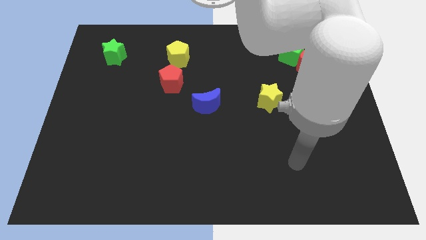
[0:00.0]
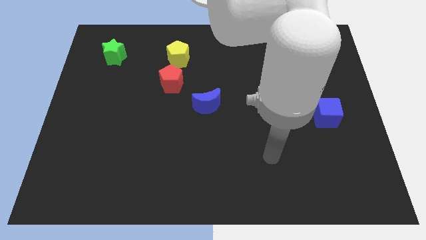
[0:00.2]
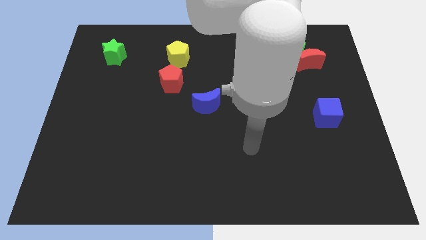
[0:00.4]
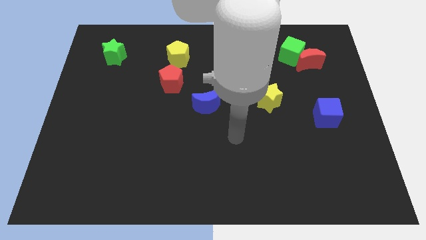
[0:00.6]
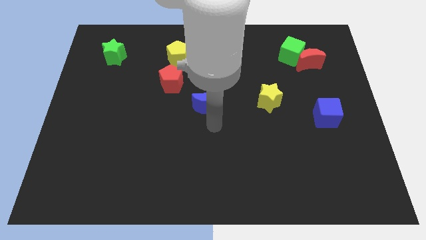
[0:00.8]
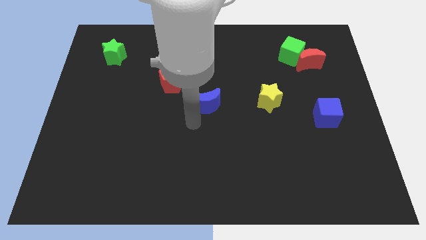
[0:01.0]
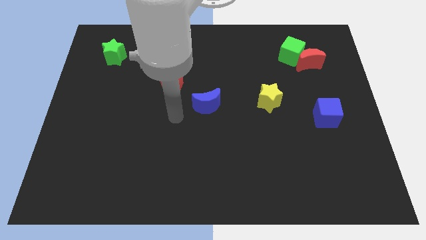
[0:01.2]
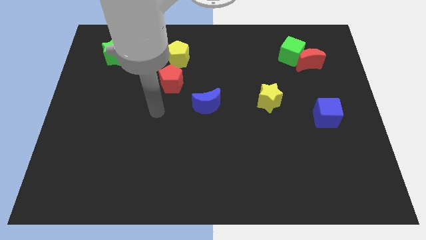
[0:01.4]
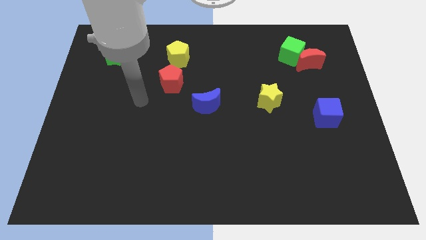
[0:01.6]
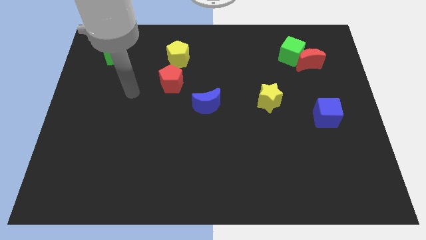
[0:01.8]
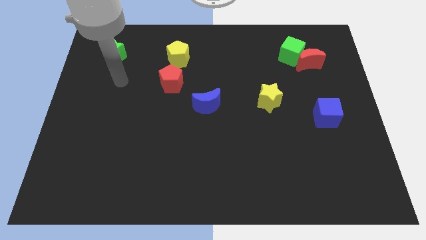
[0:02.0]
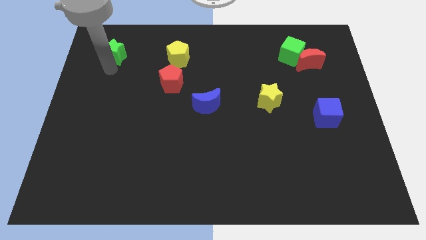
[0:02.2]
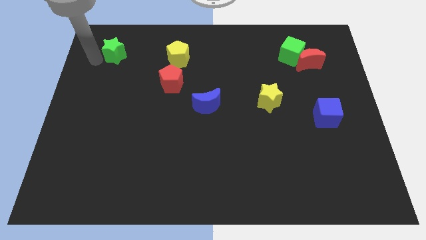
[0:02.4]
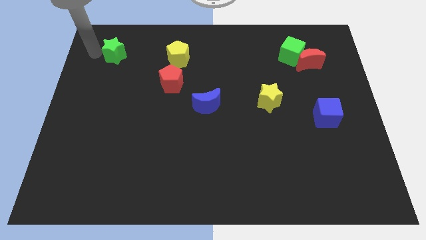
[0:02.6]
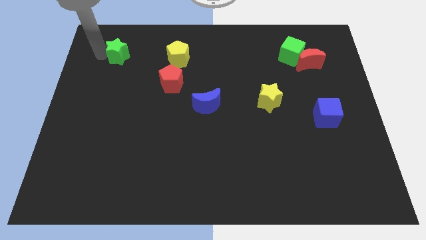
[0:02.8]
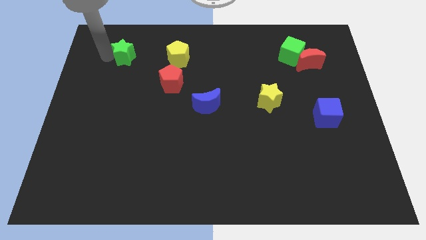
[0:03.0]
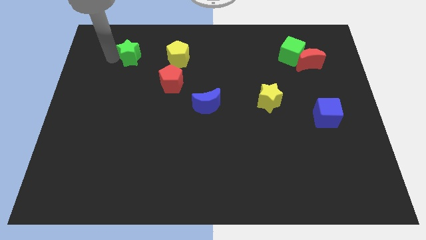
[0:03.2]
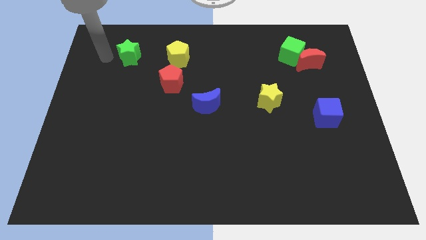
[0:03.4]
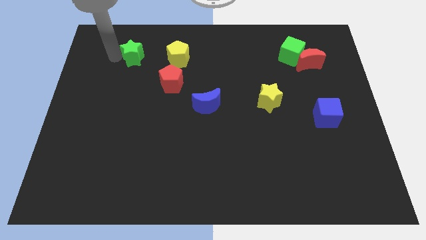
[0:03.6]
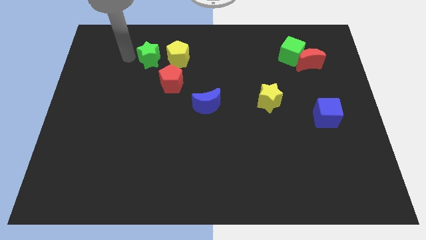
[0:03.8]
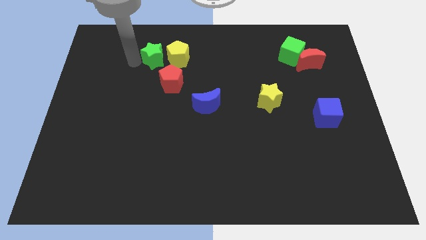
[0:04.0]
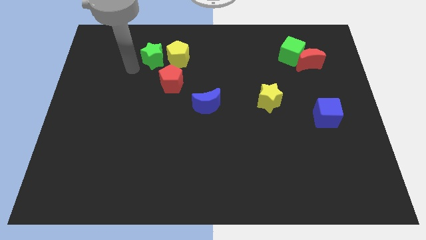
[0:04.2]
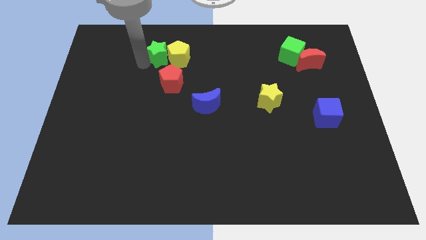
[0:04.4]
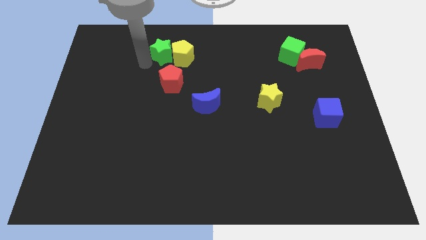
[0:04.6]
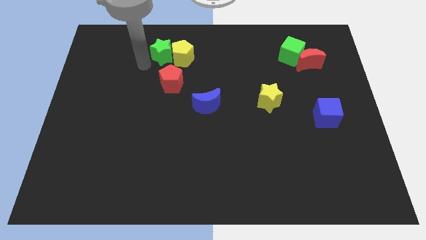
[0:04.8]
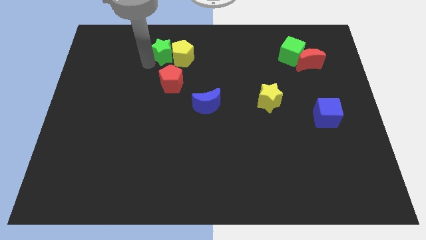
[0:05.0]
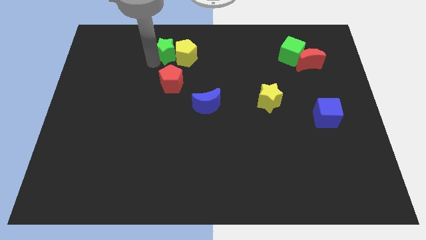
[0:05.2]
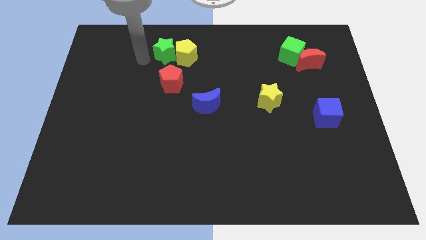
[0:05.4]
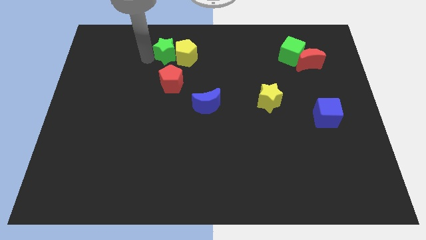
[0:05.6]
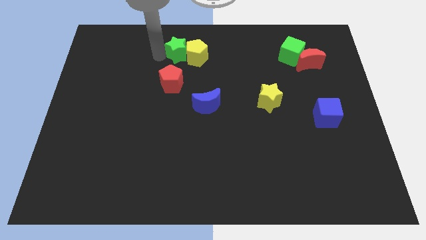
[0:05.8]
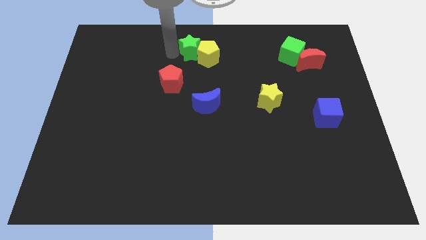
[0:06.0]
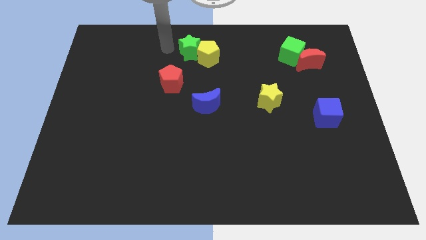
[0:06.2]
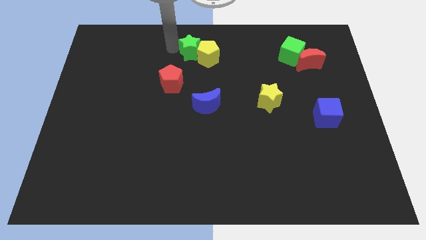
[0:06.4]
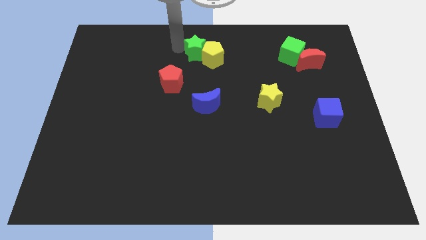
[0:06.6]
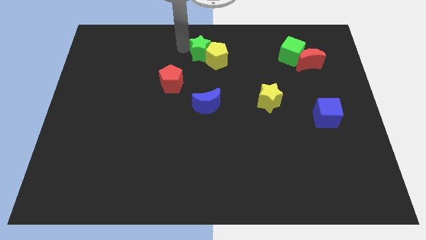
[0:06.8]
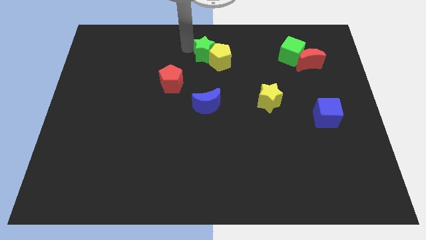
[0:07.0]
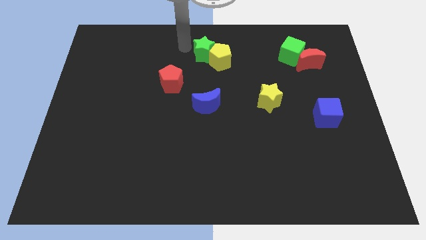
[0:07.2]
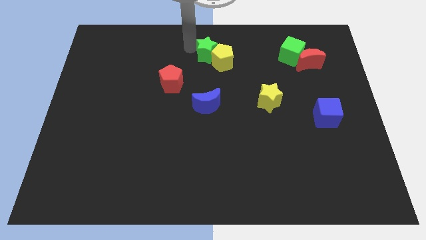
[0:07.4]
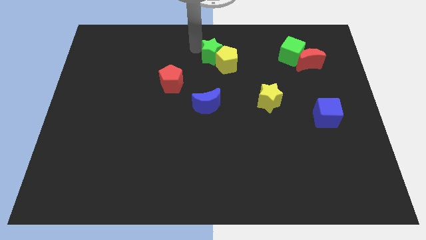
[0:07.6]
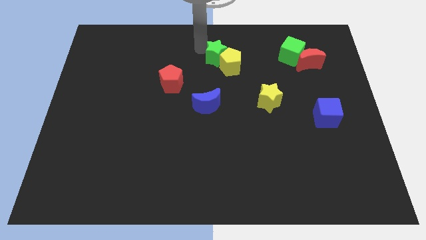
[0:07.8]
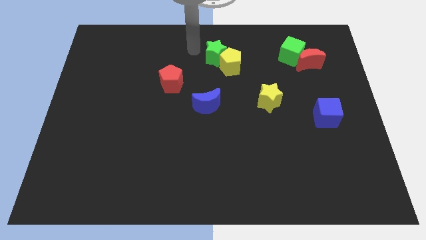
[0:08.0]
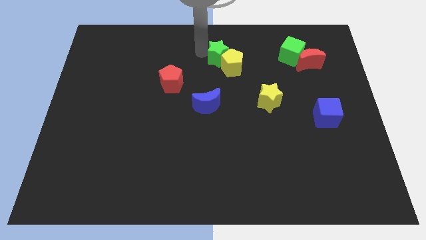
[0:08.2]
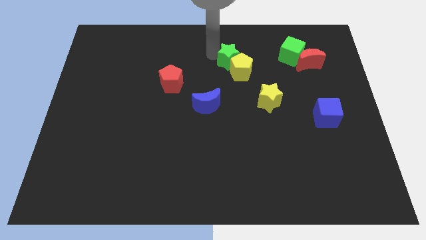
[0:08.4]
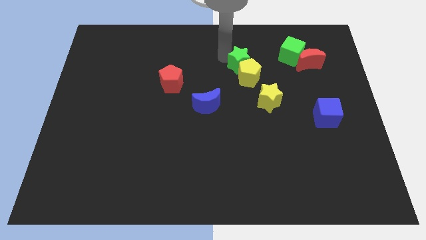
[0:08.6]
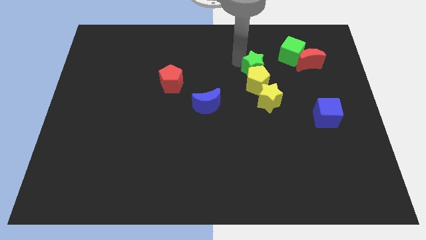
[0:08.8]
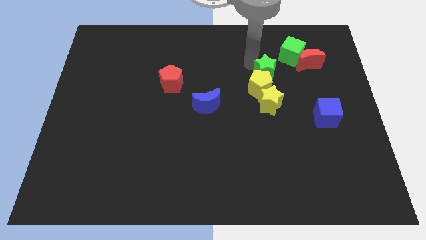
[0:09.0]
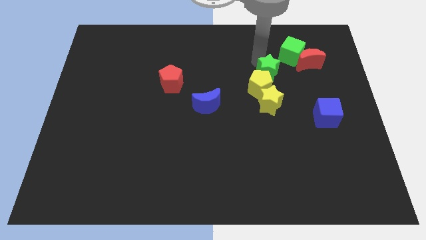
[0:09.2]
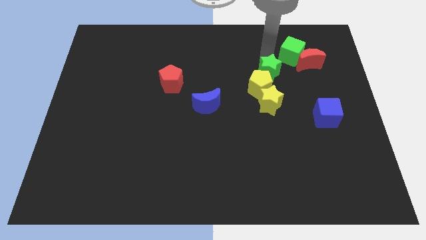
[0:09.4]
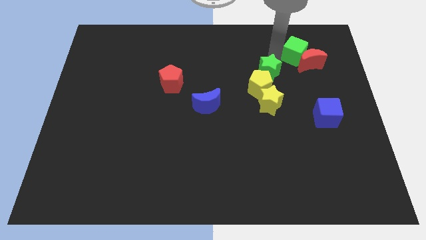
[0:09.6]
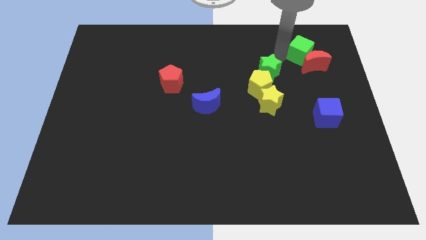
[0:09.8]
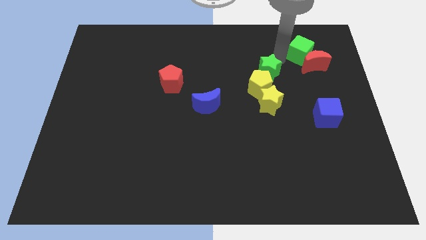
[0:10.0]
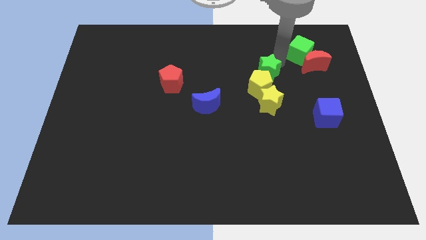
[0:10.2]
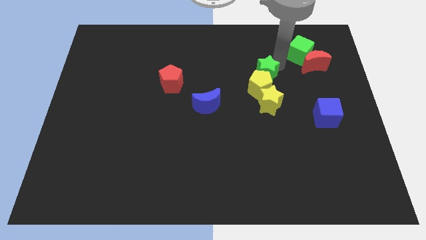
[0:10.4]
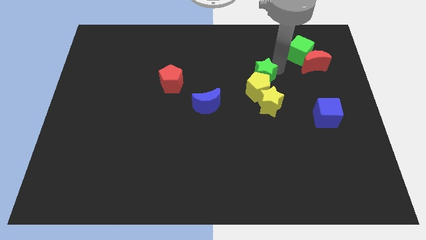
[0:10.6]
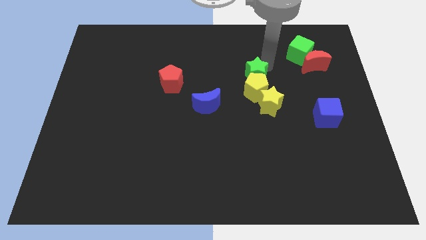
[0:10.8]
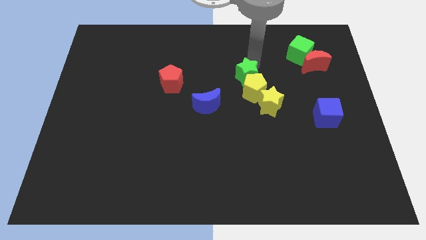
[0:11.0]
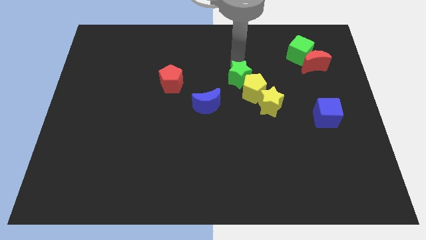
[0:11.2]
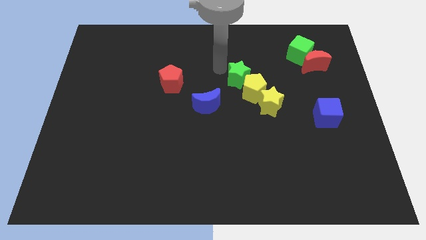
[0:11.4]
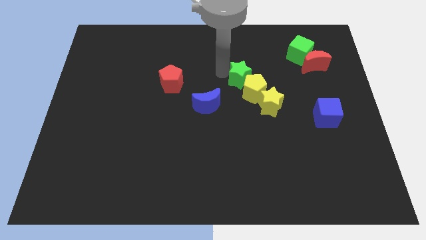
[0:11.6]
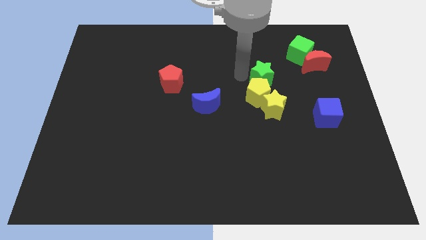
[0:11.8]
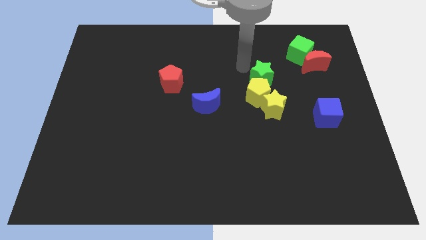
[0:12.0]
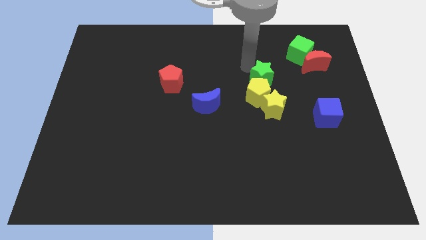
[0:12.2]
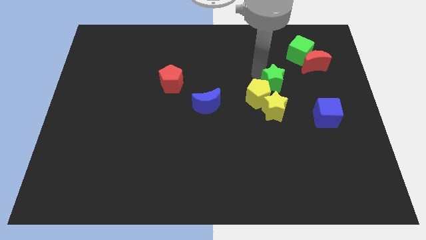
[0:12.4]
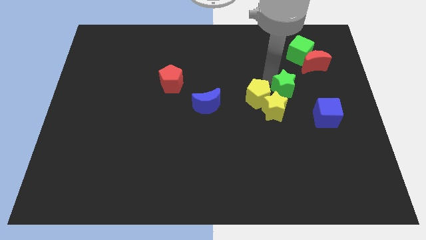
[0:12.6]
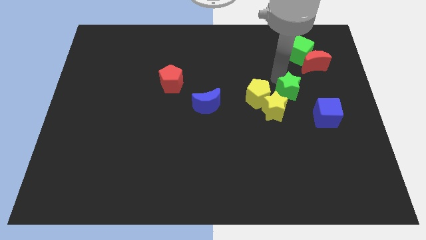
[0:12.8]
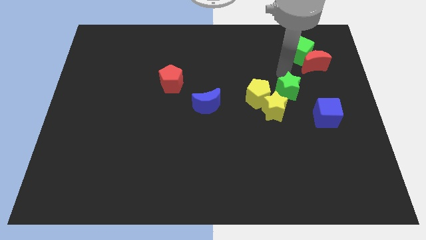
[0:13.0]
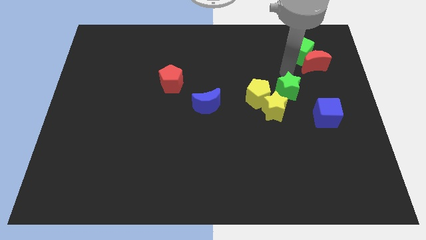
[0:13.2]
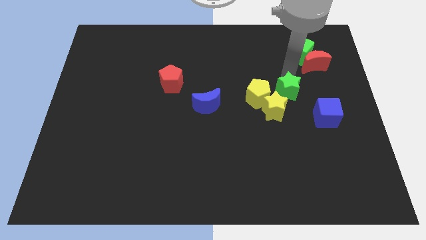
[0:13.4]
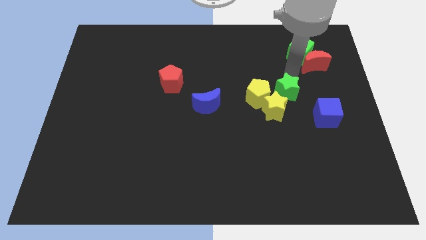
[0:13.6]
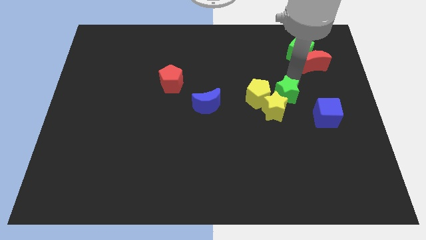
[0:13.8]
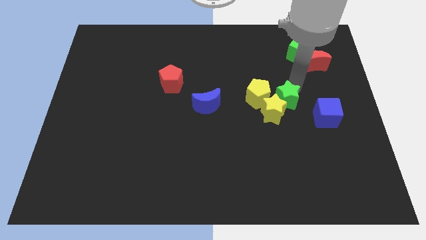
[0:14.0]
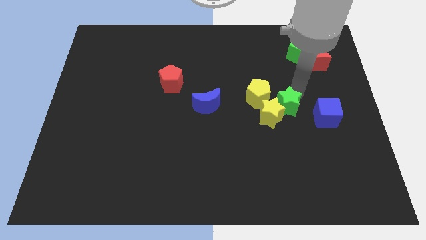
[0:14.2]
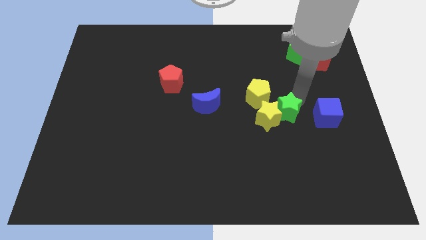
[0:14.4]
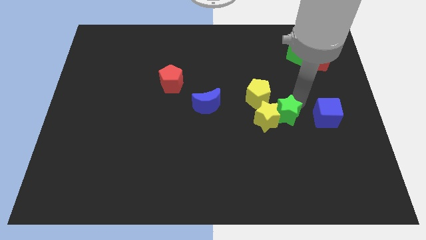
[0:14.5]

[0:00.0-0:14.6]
slide the green star diagonally down and to the right of the yellow star

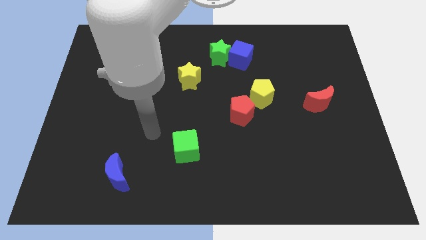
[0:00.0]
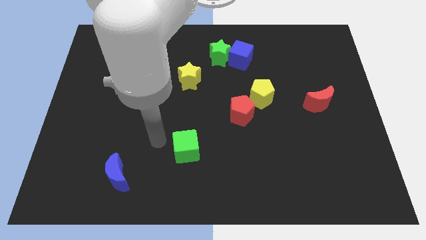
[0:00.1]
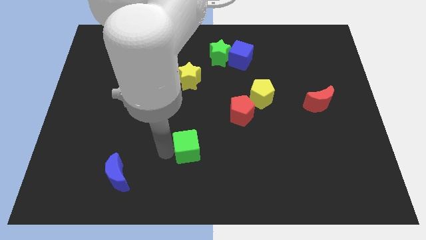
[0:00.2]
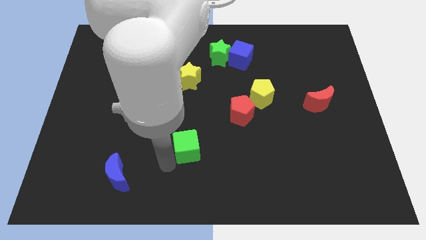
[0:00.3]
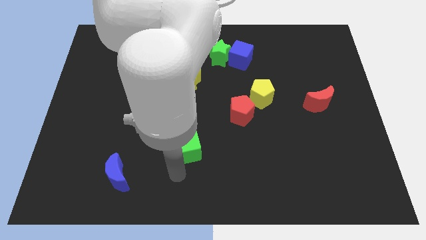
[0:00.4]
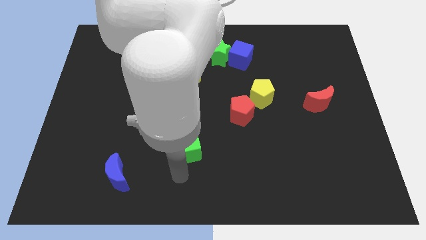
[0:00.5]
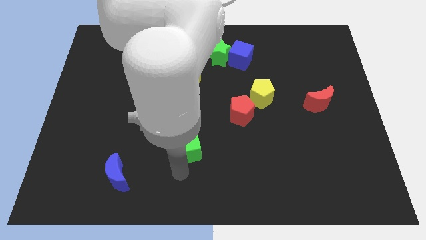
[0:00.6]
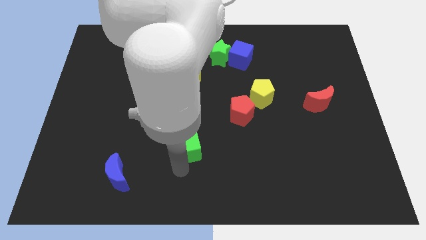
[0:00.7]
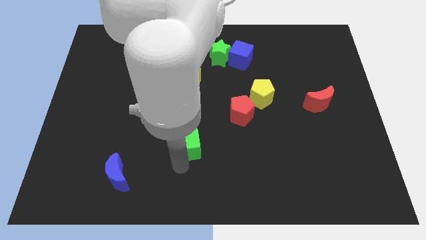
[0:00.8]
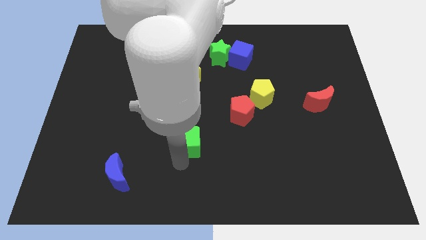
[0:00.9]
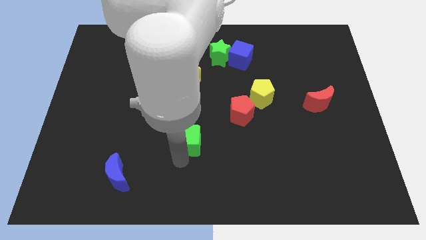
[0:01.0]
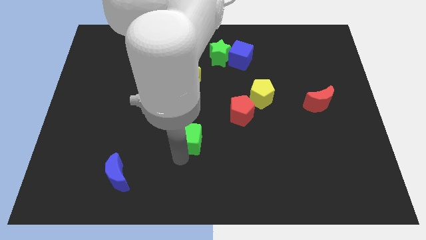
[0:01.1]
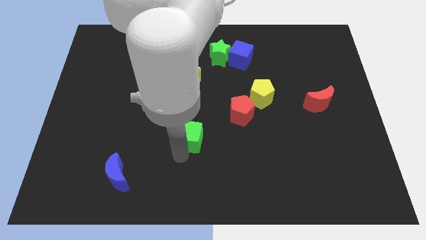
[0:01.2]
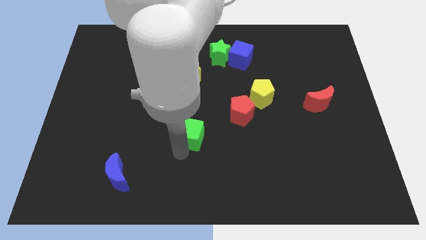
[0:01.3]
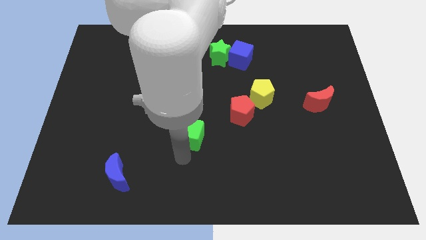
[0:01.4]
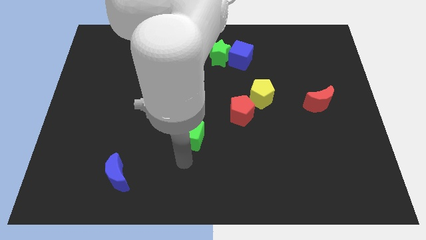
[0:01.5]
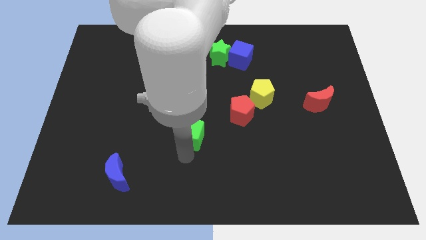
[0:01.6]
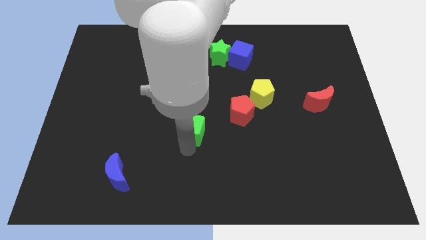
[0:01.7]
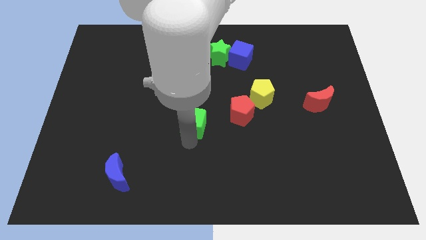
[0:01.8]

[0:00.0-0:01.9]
put the green cube to the left side of the red pentagon
